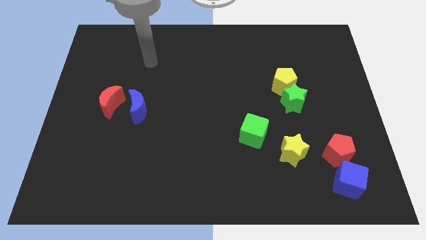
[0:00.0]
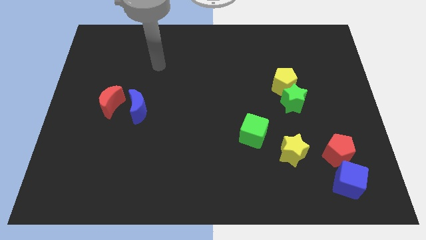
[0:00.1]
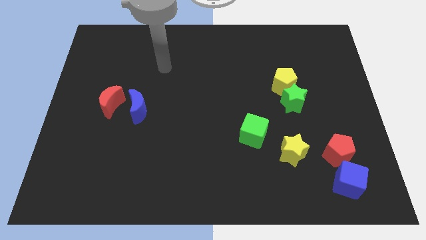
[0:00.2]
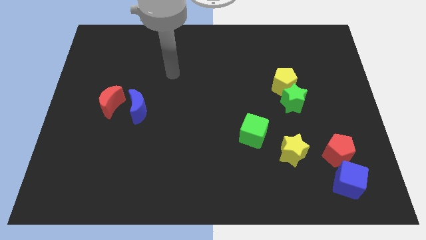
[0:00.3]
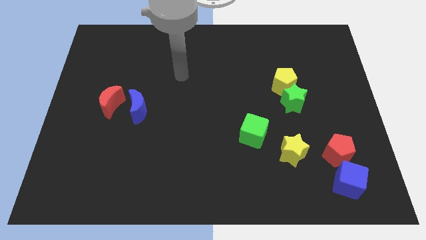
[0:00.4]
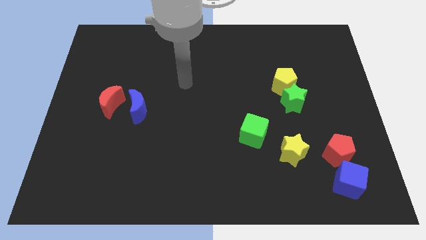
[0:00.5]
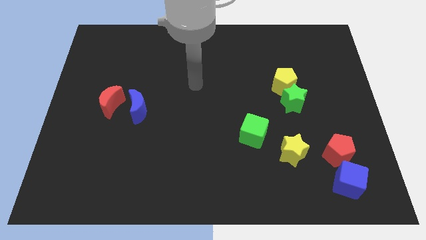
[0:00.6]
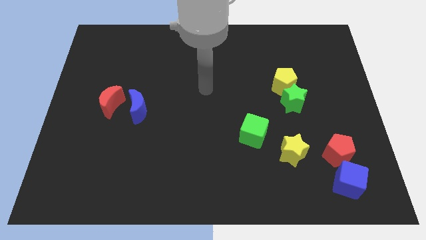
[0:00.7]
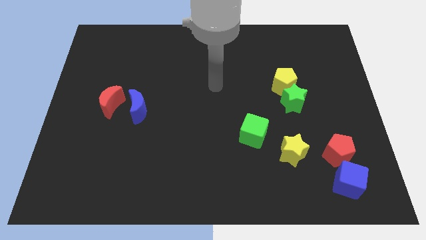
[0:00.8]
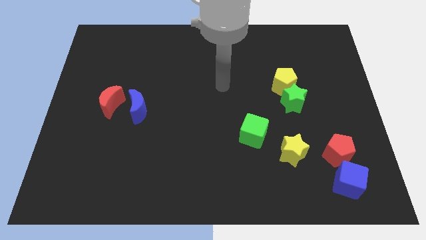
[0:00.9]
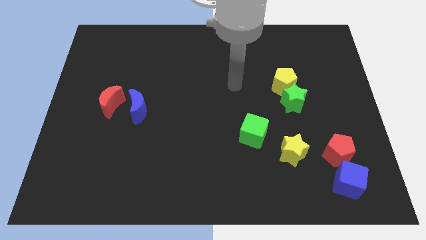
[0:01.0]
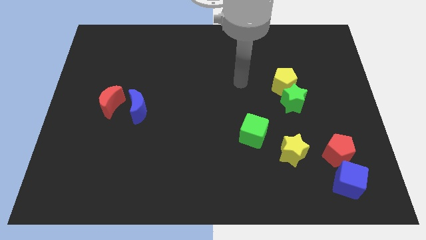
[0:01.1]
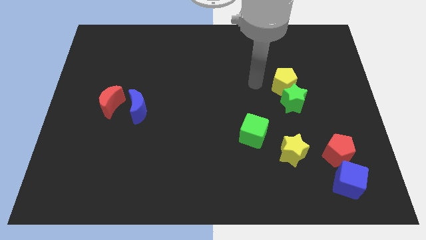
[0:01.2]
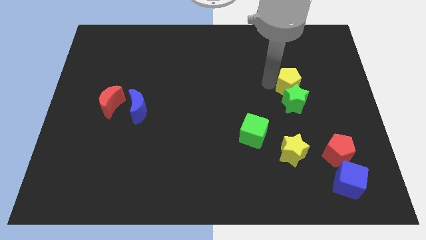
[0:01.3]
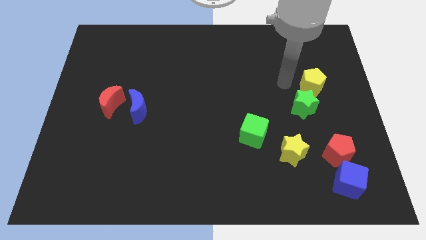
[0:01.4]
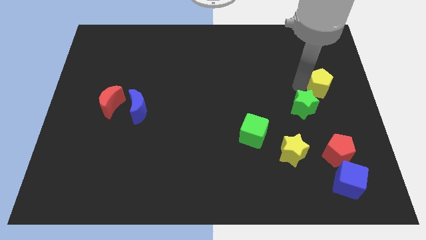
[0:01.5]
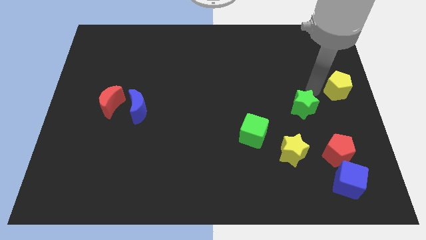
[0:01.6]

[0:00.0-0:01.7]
pull the green star apart from the yellow pentagon

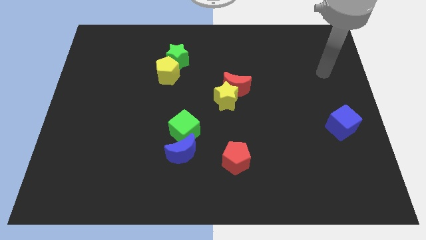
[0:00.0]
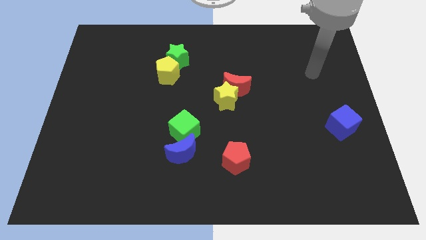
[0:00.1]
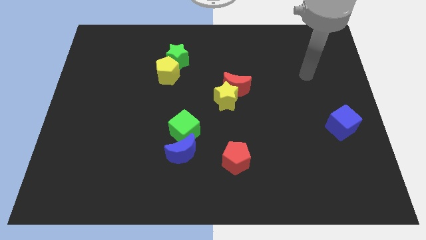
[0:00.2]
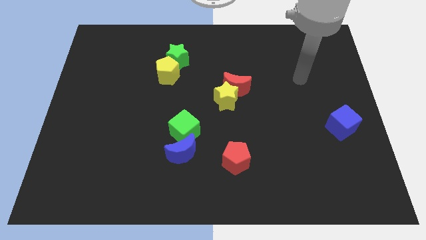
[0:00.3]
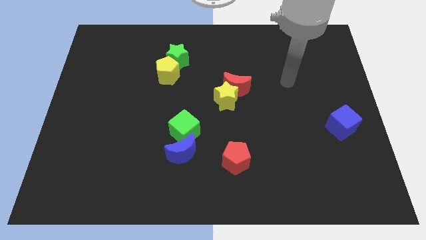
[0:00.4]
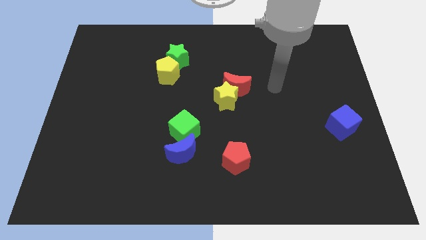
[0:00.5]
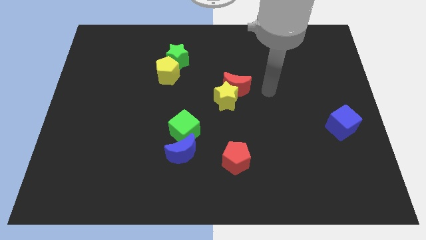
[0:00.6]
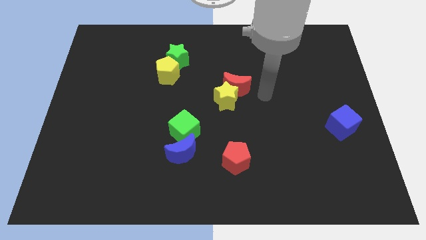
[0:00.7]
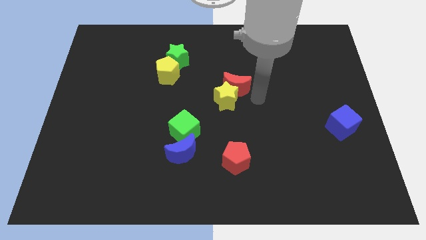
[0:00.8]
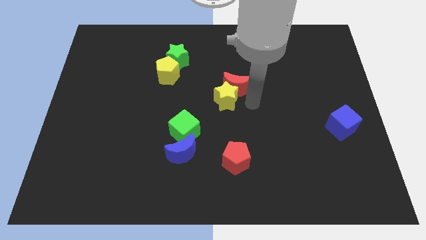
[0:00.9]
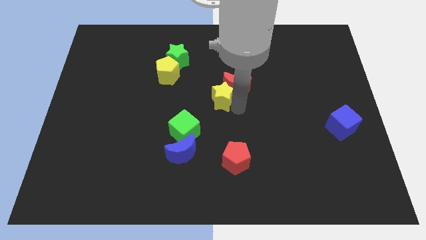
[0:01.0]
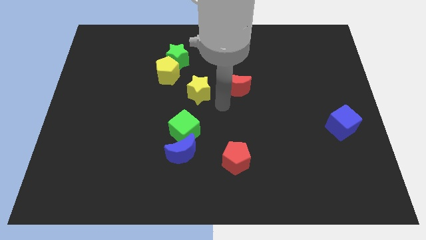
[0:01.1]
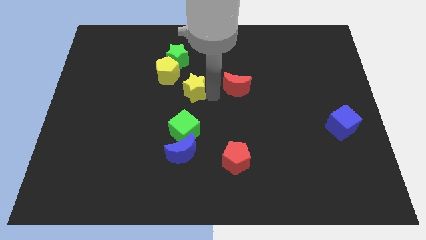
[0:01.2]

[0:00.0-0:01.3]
separate the red moon from the yellow star

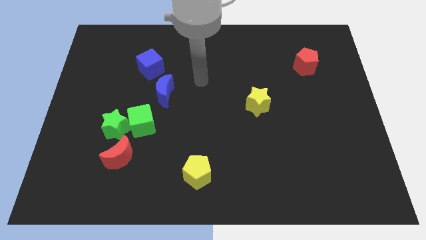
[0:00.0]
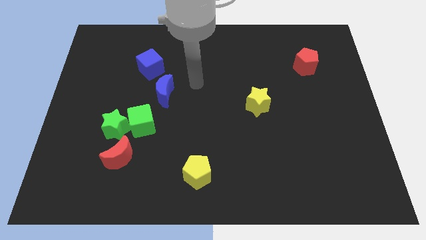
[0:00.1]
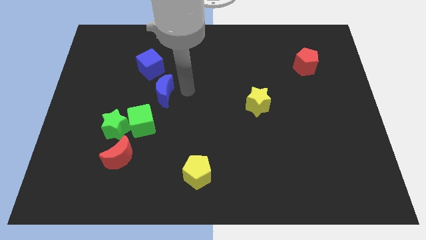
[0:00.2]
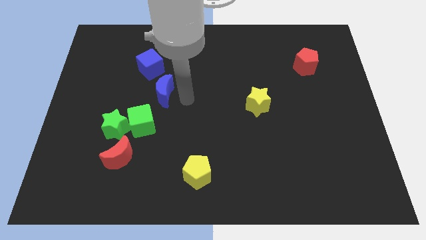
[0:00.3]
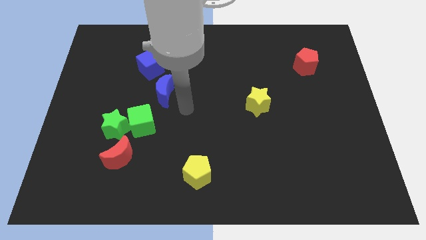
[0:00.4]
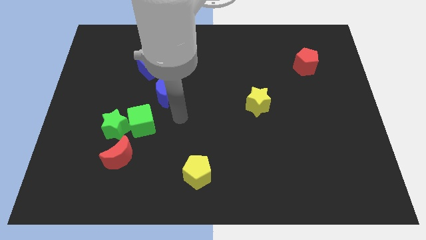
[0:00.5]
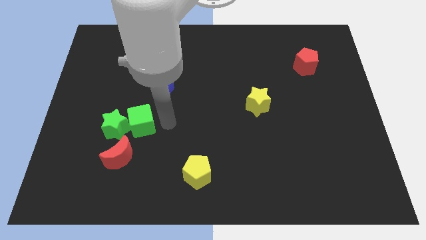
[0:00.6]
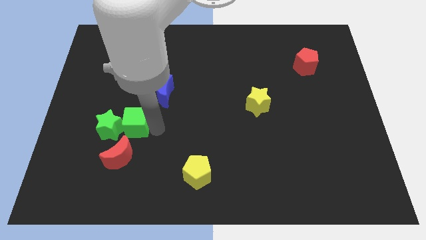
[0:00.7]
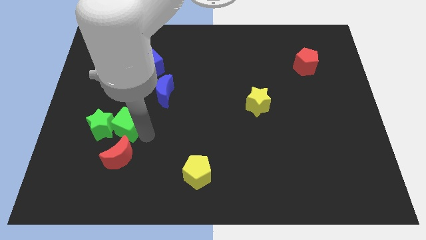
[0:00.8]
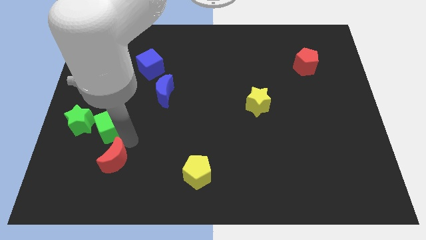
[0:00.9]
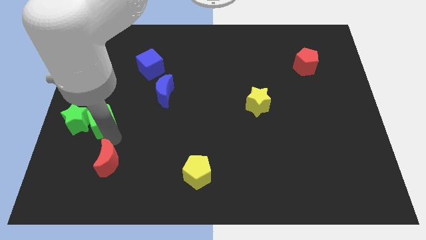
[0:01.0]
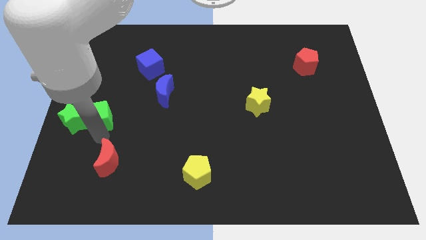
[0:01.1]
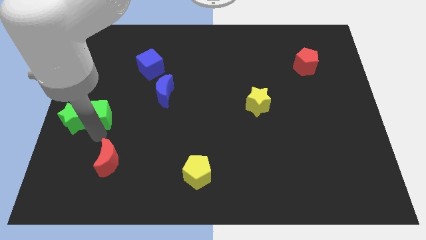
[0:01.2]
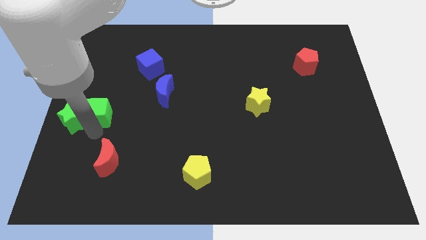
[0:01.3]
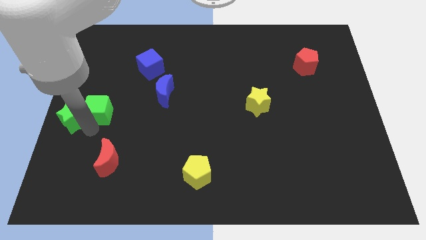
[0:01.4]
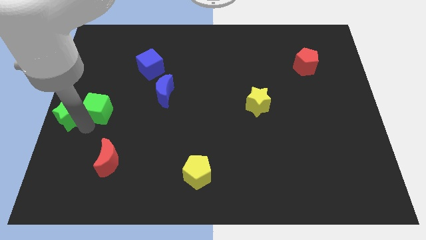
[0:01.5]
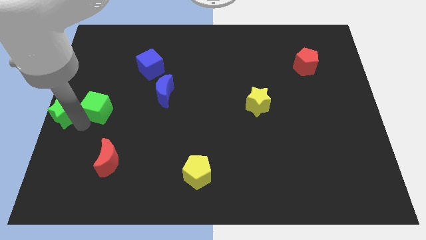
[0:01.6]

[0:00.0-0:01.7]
move the green star away from the green cube and red moon

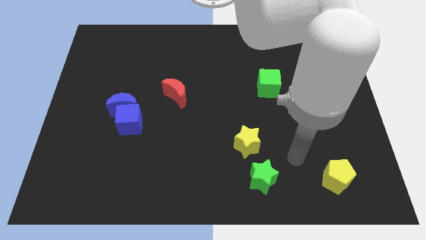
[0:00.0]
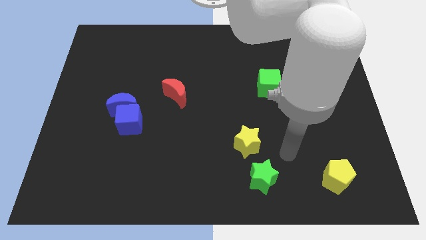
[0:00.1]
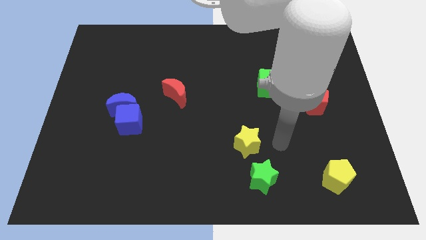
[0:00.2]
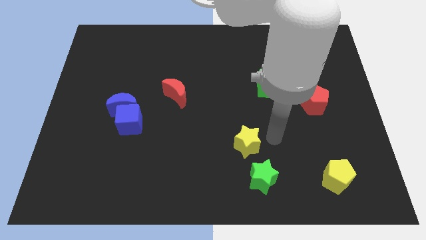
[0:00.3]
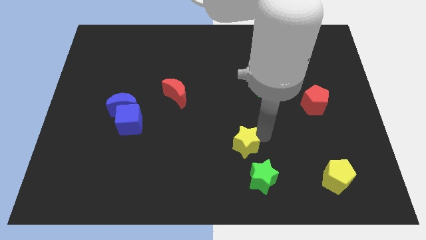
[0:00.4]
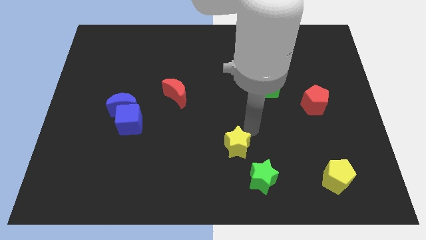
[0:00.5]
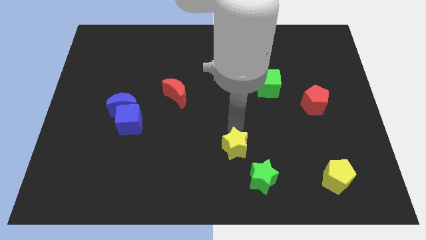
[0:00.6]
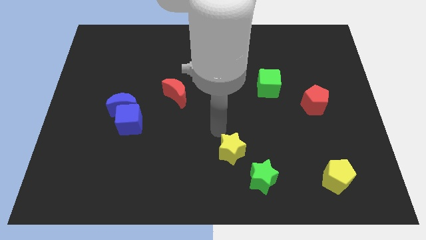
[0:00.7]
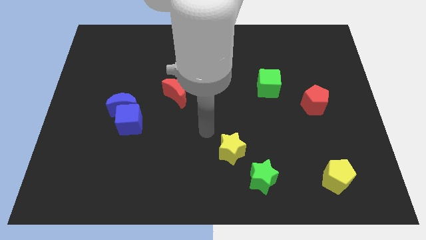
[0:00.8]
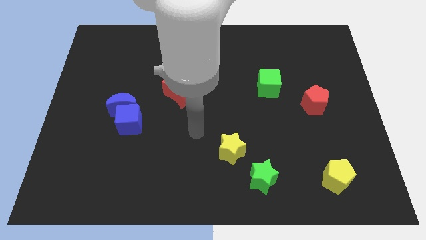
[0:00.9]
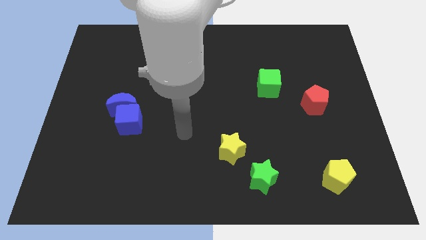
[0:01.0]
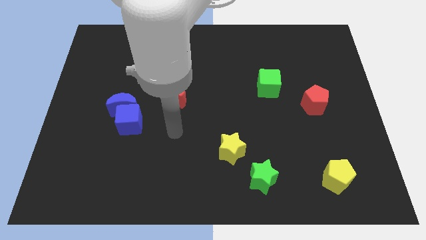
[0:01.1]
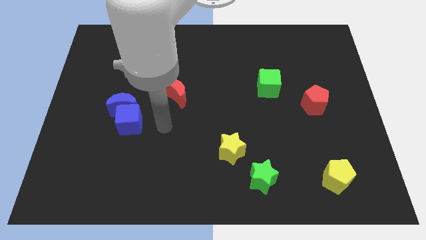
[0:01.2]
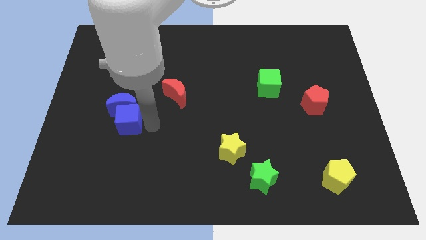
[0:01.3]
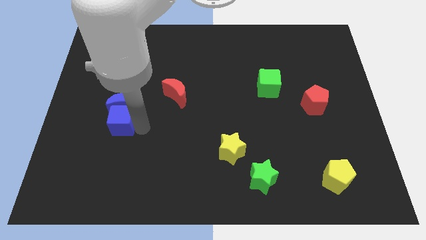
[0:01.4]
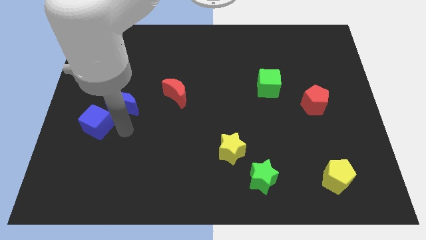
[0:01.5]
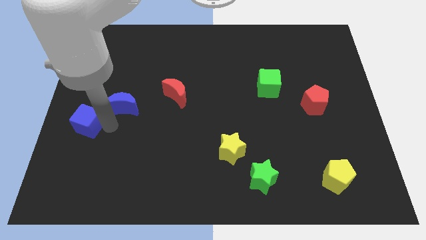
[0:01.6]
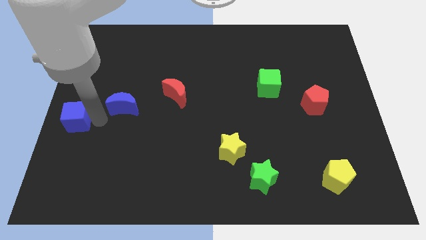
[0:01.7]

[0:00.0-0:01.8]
pull the blue moon apart from the blue cube

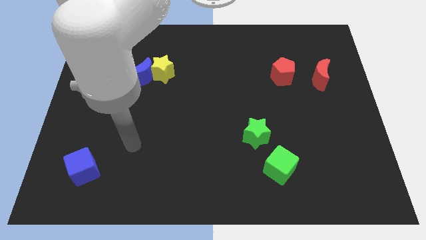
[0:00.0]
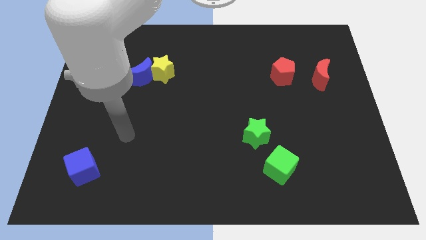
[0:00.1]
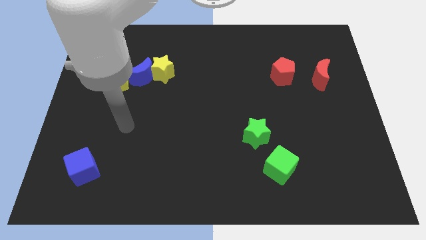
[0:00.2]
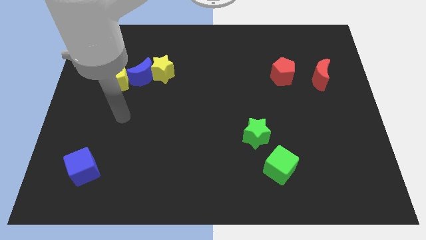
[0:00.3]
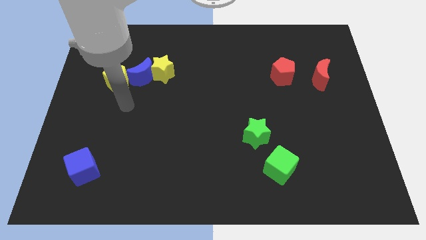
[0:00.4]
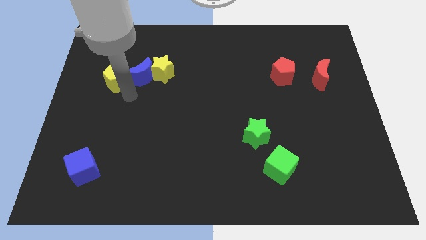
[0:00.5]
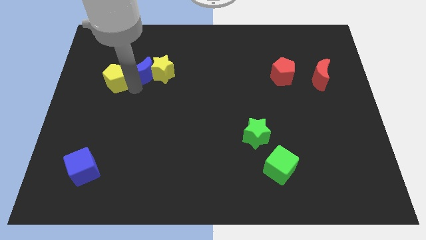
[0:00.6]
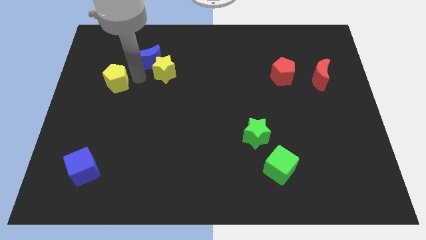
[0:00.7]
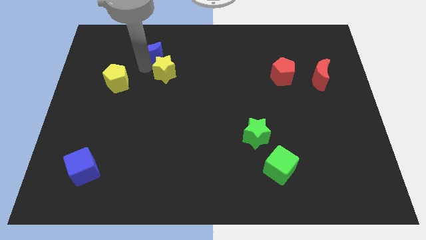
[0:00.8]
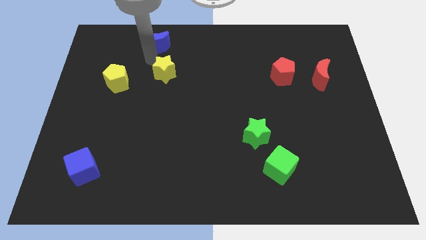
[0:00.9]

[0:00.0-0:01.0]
move the yellow star away from the blue moon

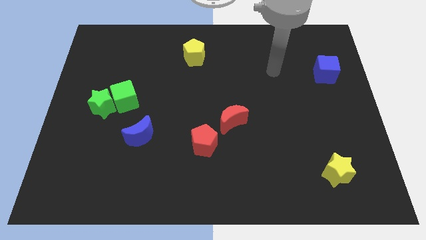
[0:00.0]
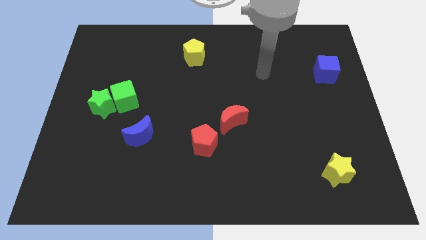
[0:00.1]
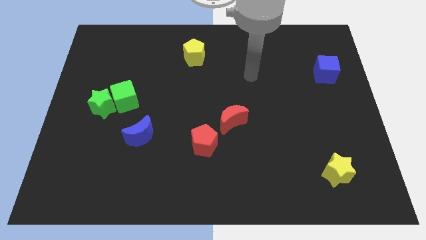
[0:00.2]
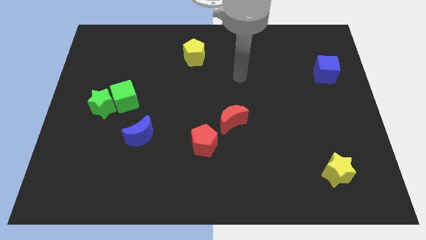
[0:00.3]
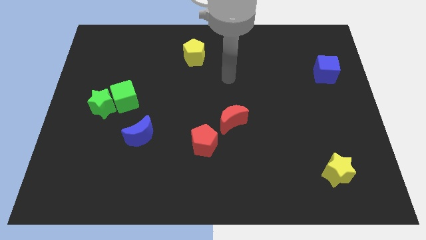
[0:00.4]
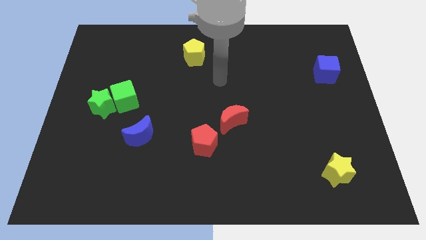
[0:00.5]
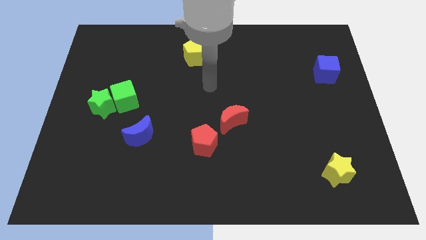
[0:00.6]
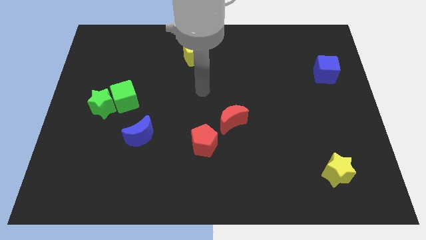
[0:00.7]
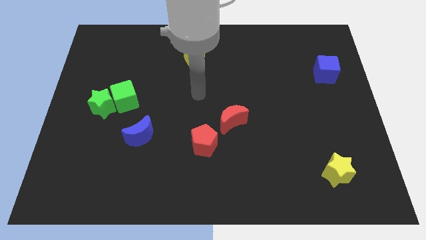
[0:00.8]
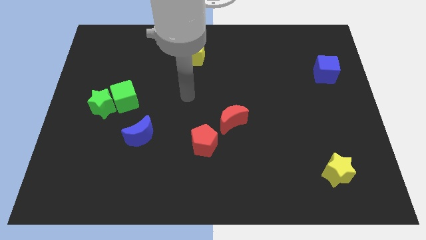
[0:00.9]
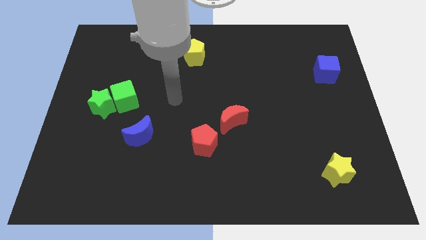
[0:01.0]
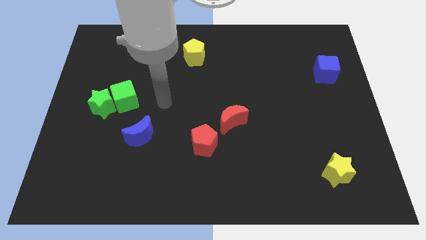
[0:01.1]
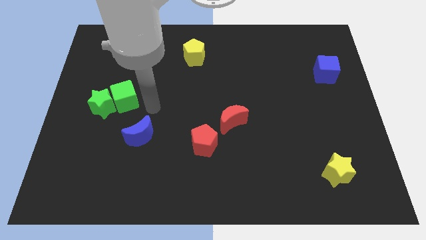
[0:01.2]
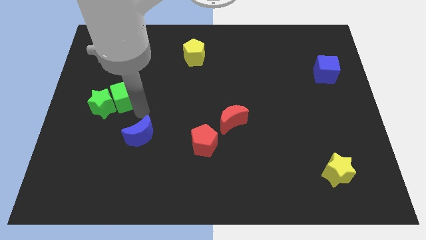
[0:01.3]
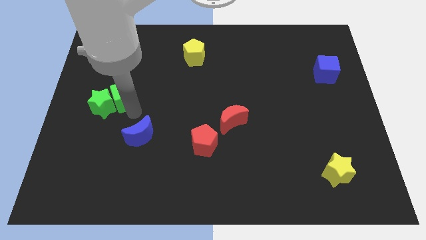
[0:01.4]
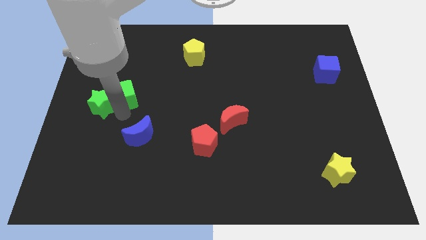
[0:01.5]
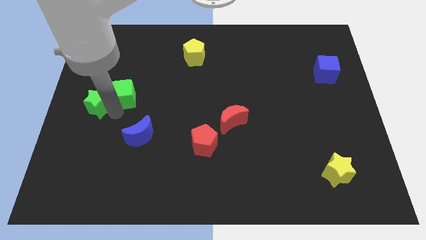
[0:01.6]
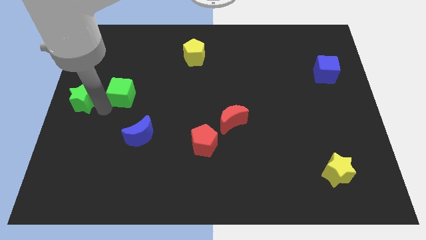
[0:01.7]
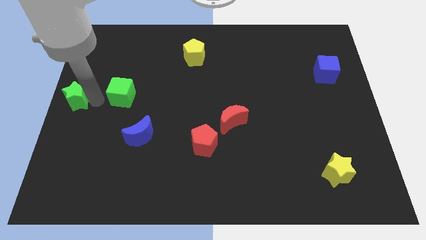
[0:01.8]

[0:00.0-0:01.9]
move the green cube away from the green star
